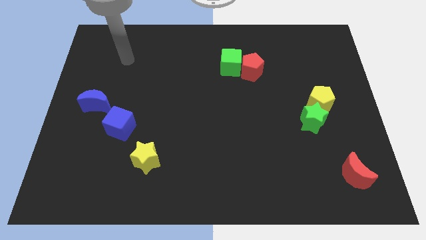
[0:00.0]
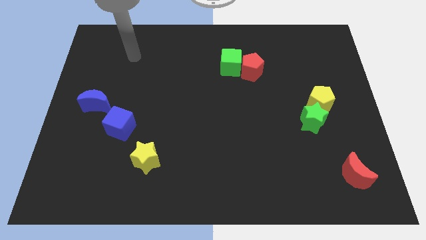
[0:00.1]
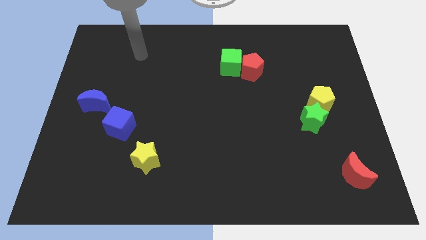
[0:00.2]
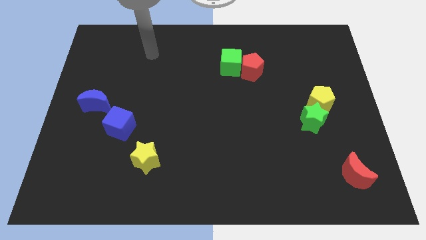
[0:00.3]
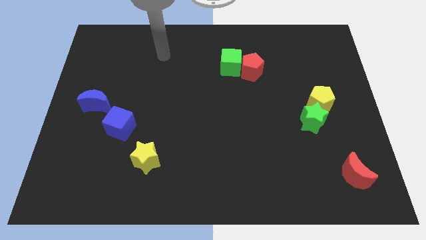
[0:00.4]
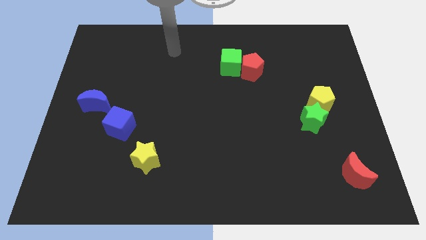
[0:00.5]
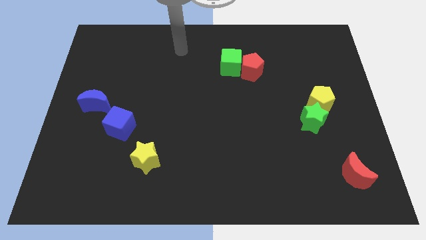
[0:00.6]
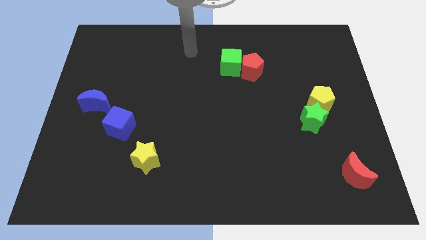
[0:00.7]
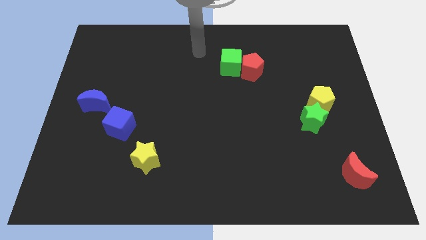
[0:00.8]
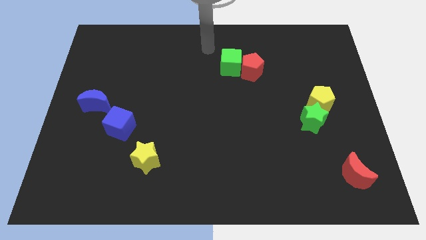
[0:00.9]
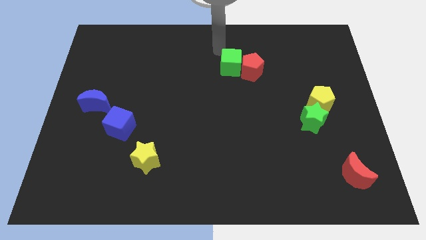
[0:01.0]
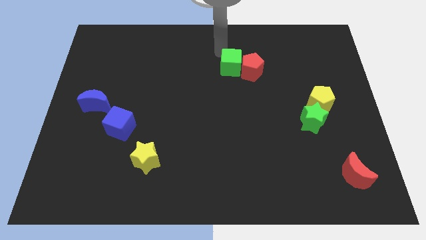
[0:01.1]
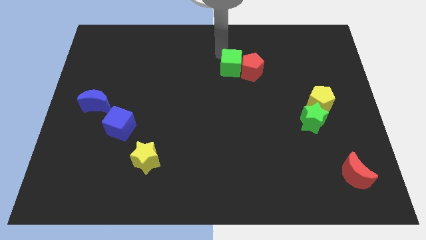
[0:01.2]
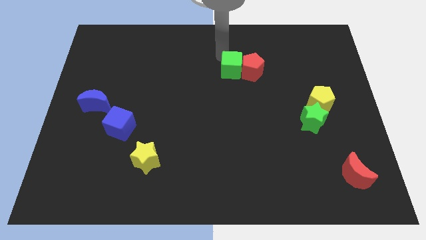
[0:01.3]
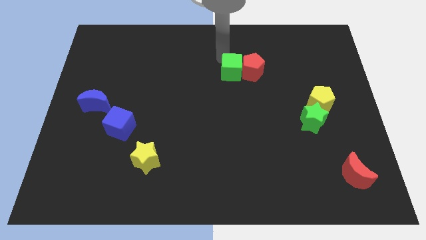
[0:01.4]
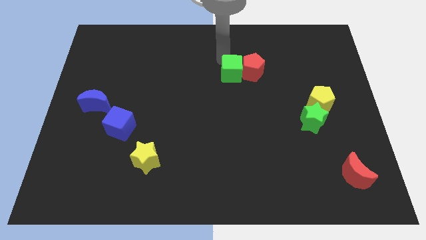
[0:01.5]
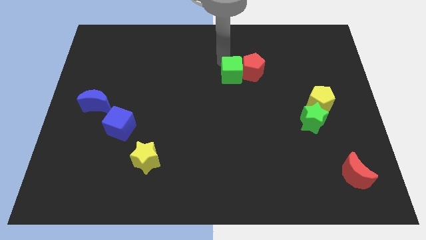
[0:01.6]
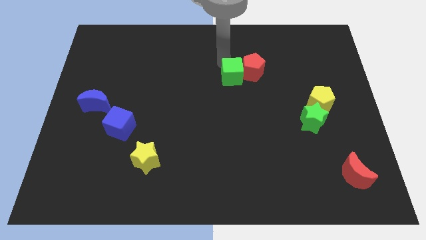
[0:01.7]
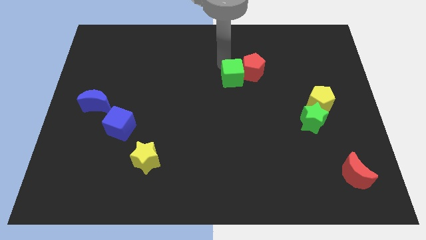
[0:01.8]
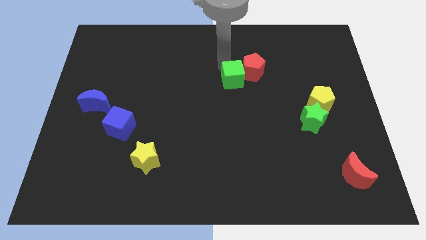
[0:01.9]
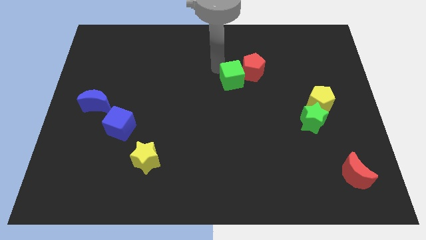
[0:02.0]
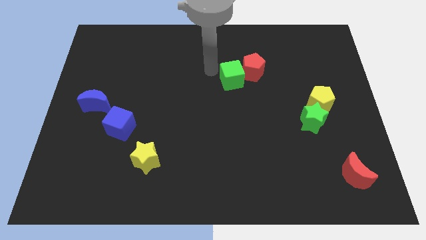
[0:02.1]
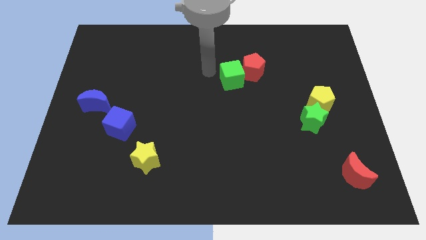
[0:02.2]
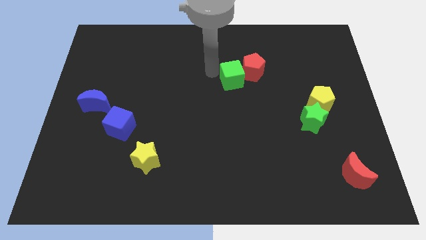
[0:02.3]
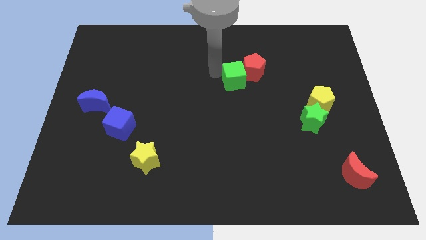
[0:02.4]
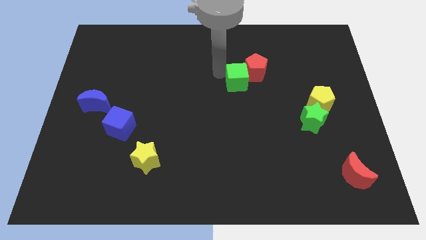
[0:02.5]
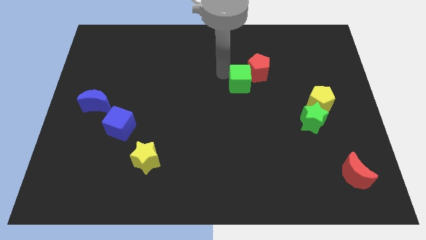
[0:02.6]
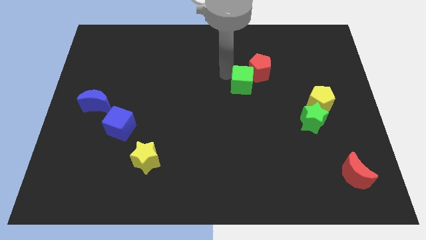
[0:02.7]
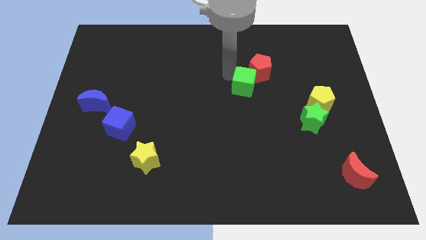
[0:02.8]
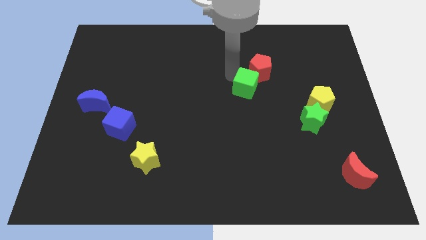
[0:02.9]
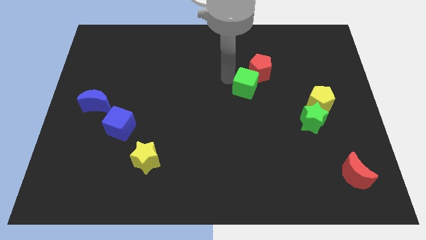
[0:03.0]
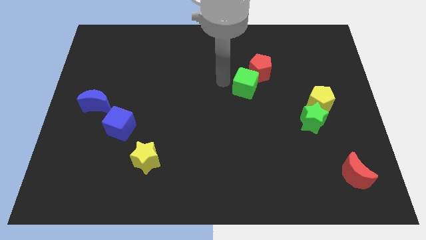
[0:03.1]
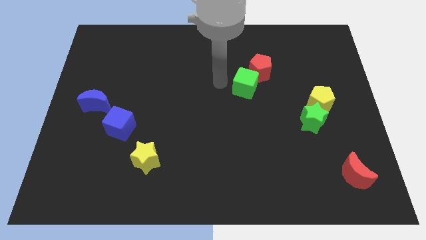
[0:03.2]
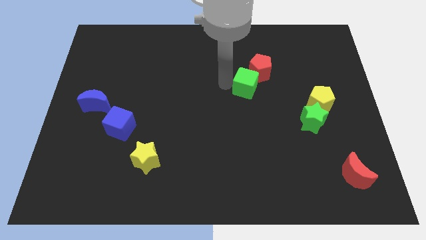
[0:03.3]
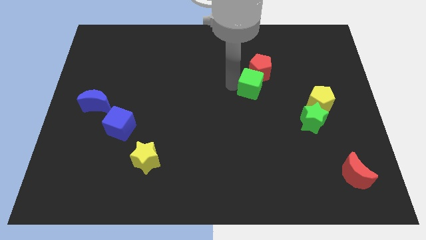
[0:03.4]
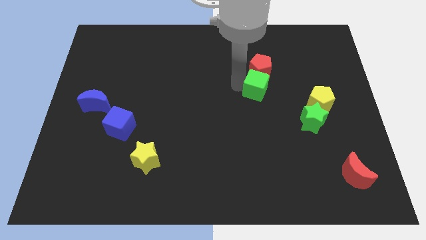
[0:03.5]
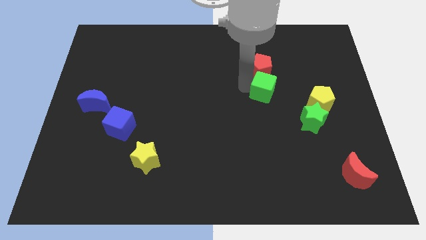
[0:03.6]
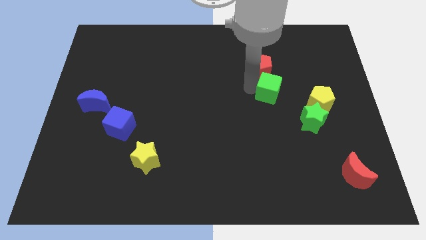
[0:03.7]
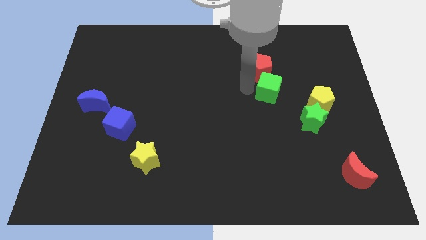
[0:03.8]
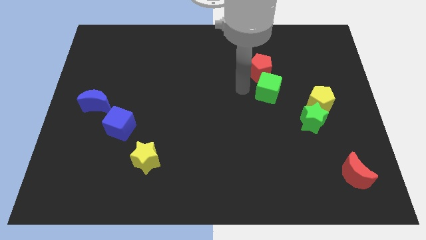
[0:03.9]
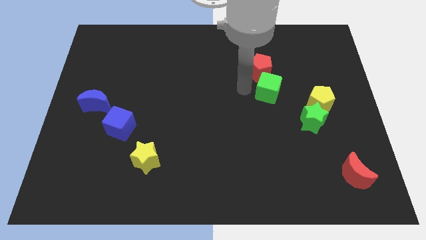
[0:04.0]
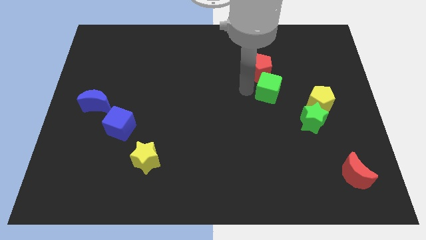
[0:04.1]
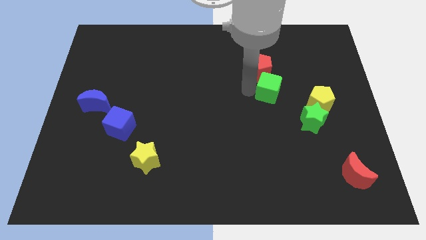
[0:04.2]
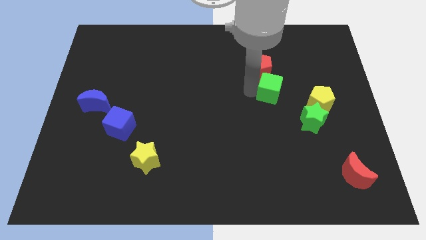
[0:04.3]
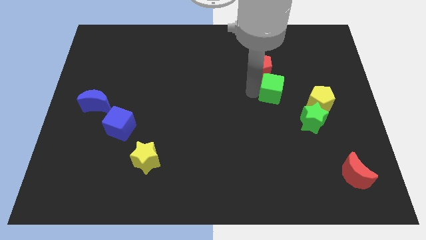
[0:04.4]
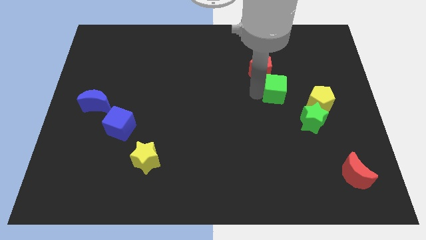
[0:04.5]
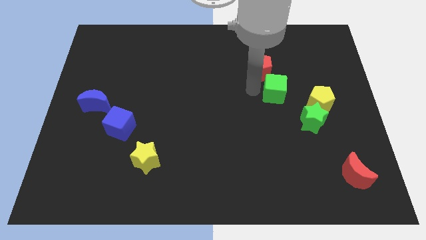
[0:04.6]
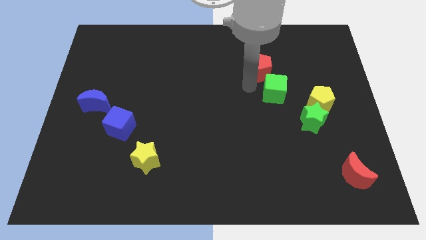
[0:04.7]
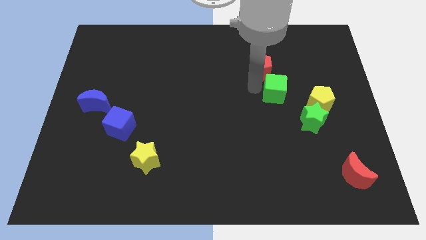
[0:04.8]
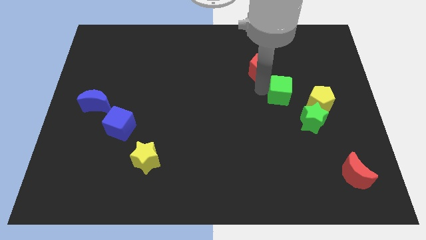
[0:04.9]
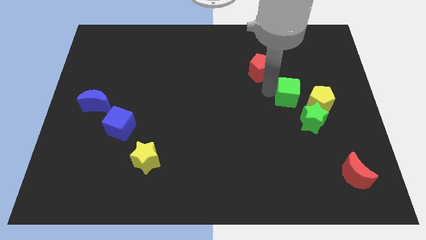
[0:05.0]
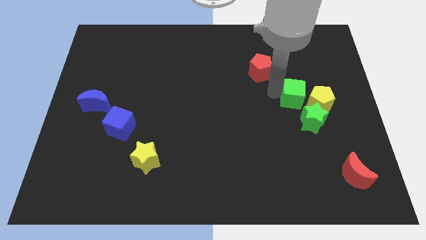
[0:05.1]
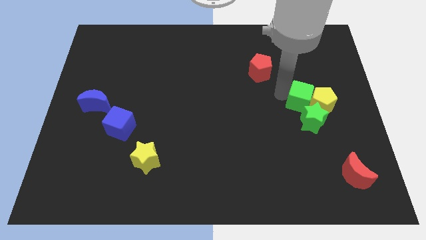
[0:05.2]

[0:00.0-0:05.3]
push the green cube close to the yellow pentagon
